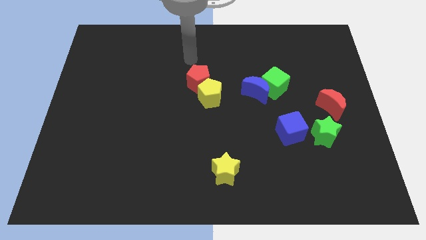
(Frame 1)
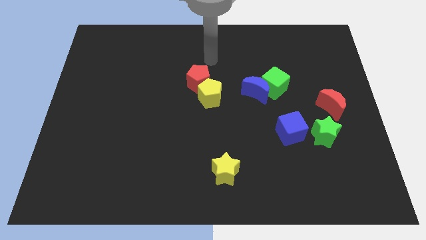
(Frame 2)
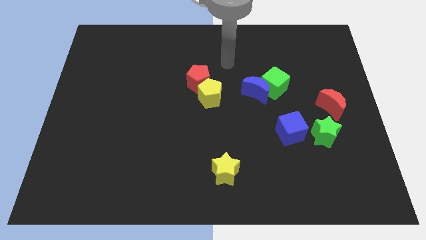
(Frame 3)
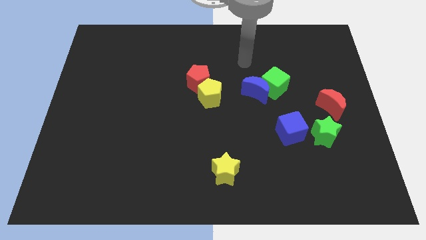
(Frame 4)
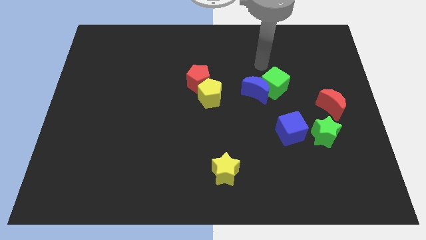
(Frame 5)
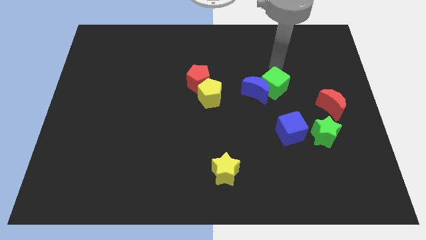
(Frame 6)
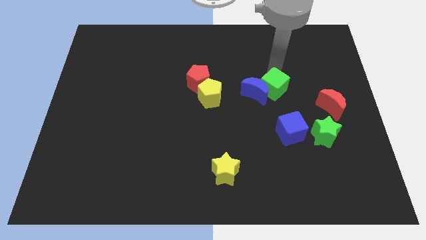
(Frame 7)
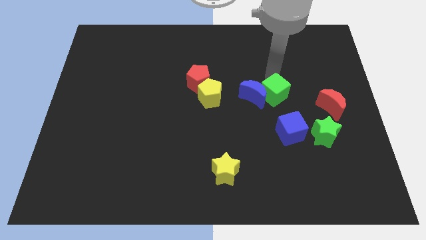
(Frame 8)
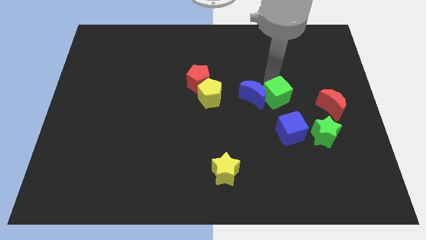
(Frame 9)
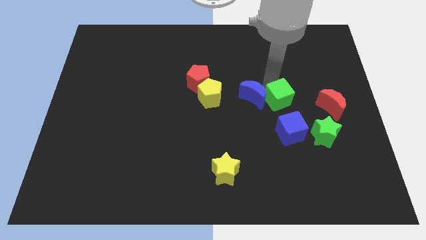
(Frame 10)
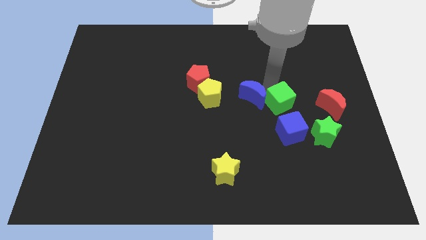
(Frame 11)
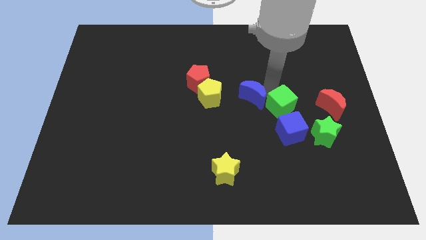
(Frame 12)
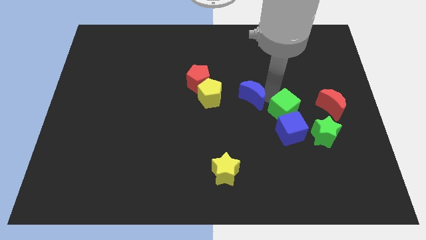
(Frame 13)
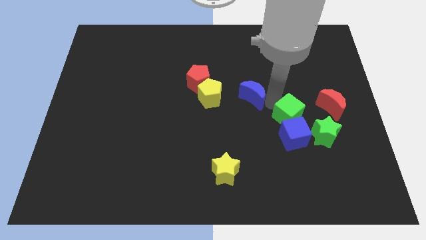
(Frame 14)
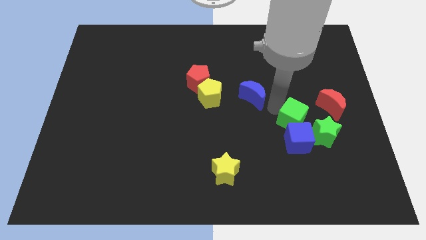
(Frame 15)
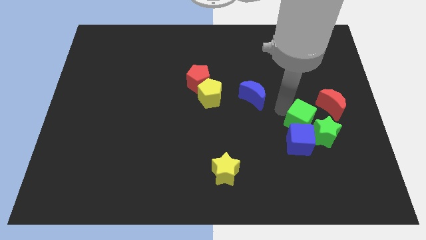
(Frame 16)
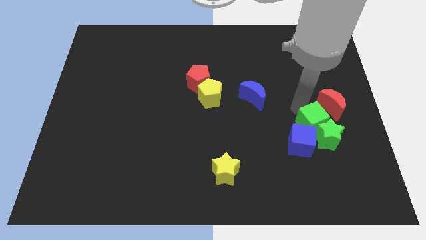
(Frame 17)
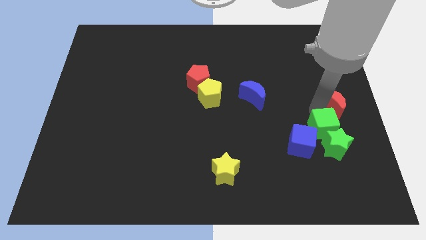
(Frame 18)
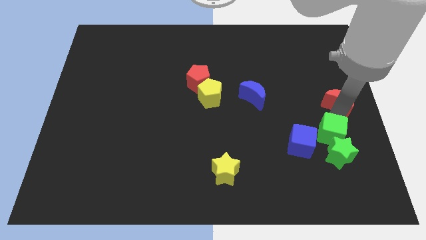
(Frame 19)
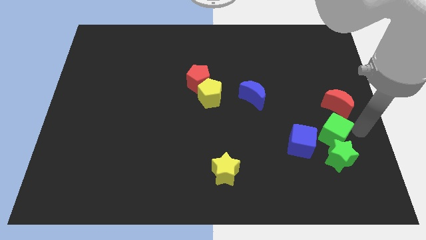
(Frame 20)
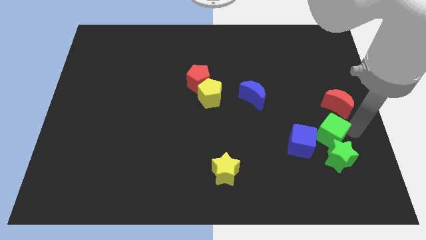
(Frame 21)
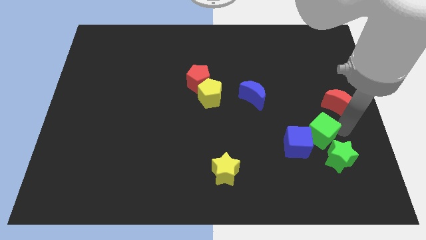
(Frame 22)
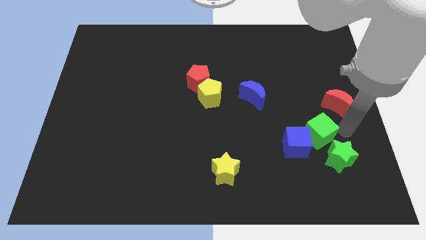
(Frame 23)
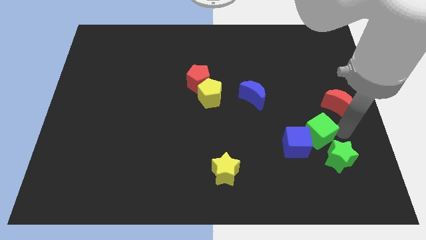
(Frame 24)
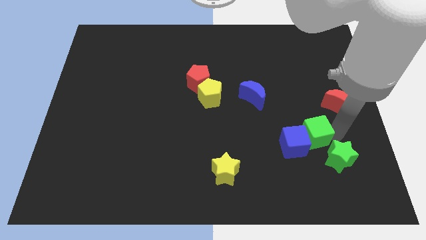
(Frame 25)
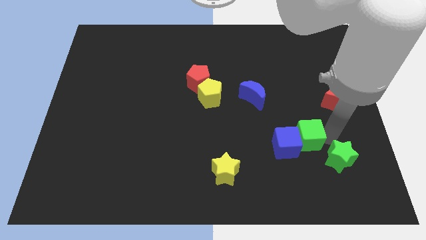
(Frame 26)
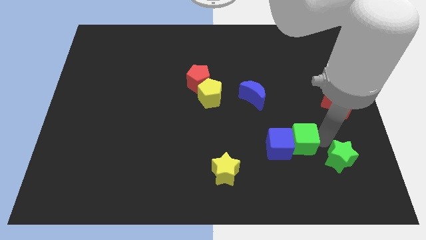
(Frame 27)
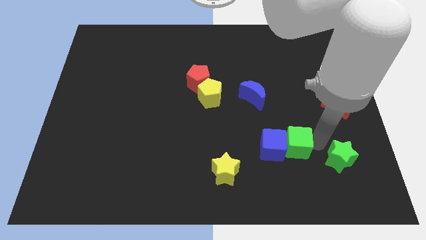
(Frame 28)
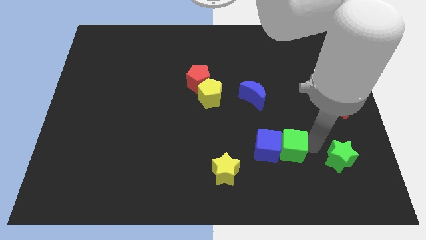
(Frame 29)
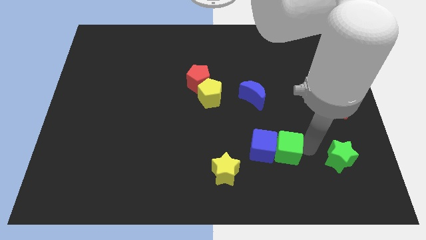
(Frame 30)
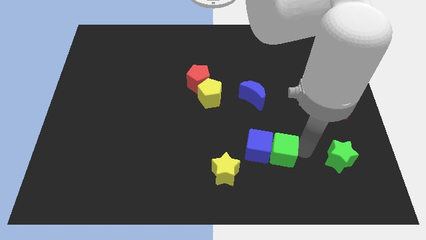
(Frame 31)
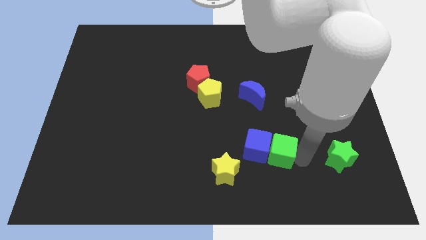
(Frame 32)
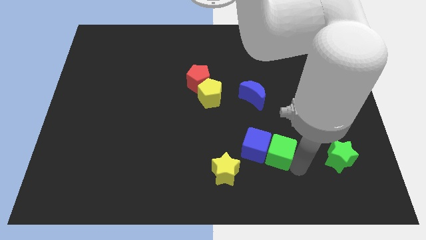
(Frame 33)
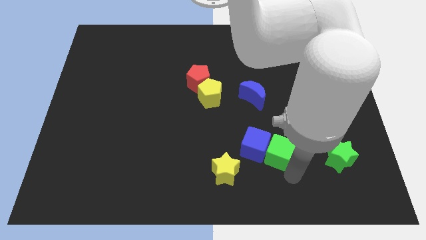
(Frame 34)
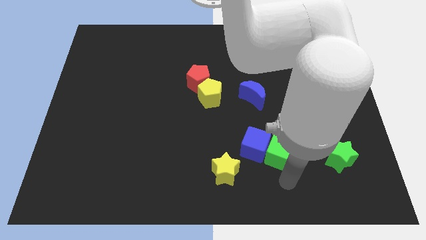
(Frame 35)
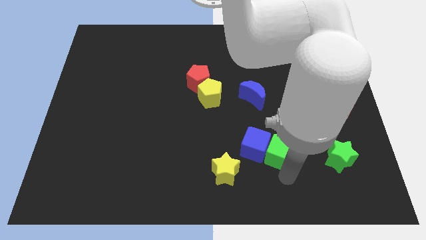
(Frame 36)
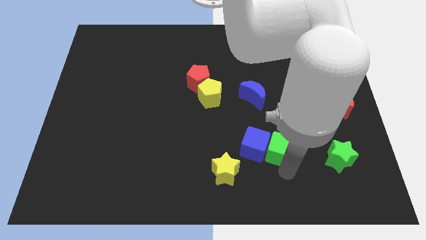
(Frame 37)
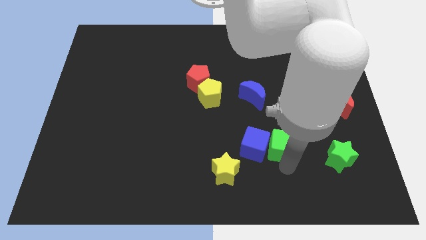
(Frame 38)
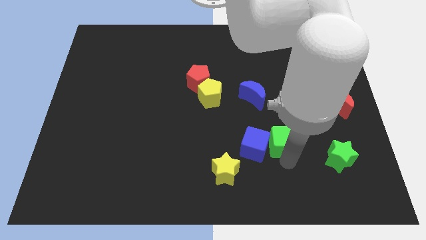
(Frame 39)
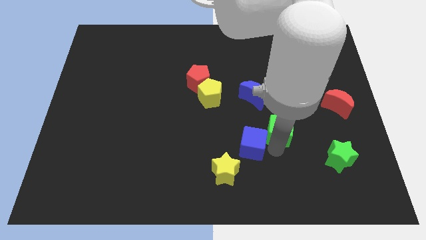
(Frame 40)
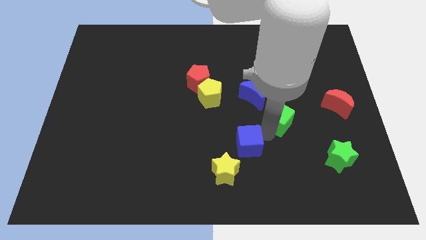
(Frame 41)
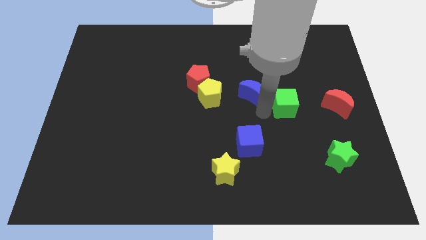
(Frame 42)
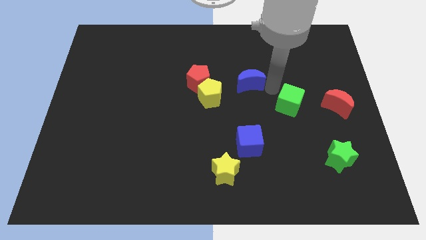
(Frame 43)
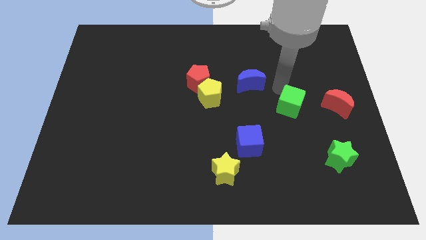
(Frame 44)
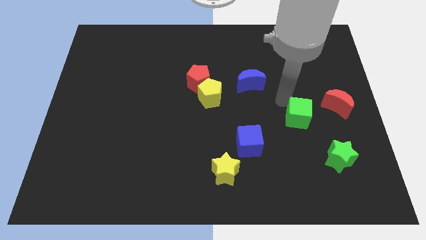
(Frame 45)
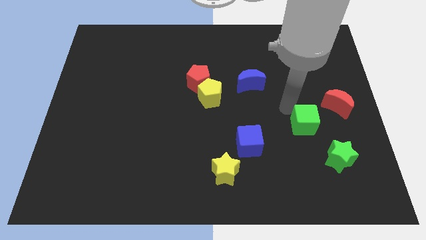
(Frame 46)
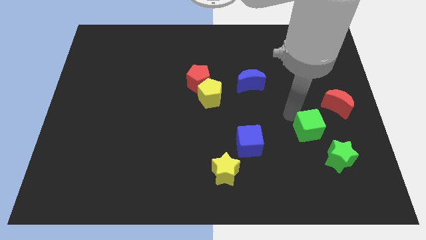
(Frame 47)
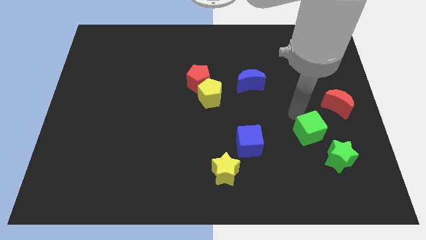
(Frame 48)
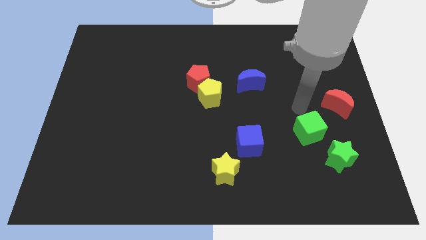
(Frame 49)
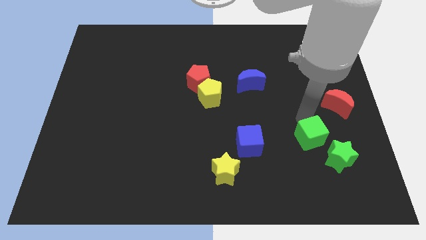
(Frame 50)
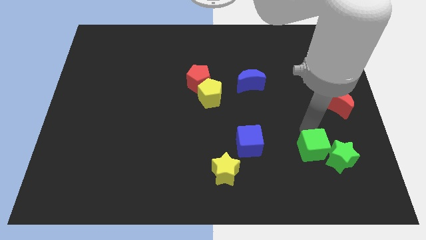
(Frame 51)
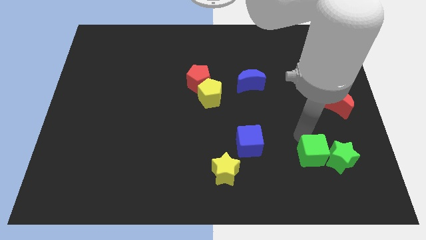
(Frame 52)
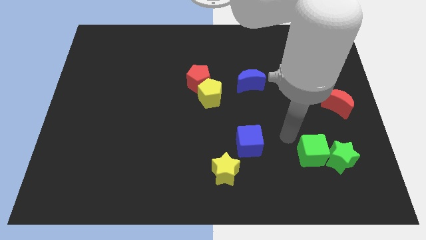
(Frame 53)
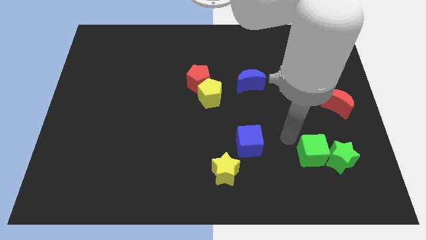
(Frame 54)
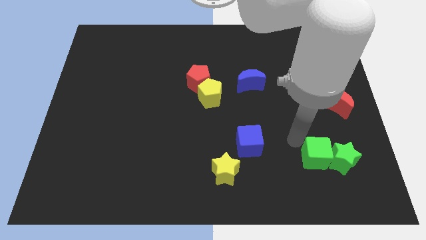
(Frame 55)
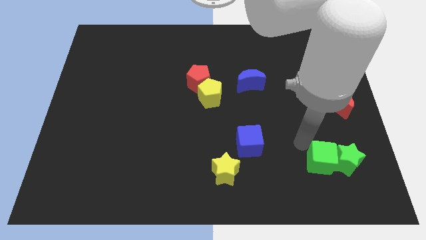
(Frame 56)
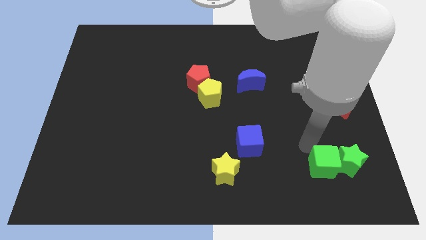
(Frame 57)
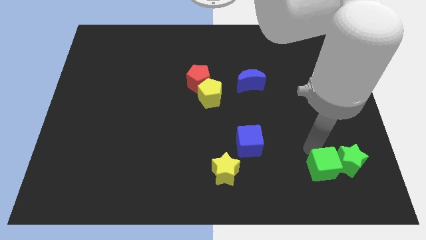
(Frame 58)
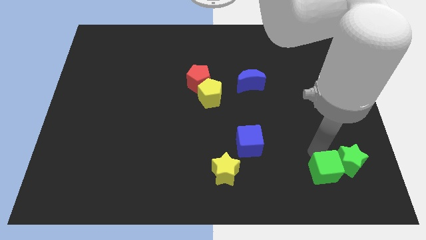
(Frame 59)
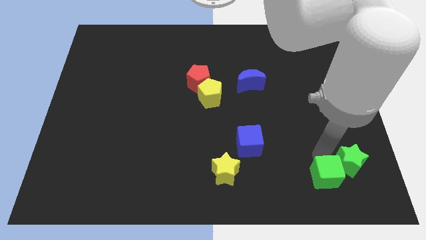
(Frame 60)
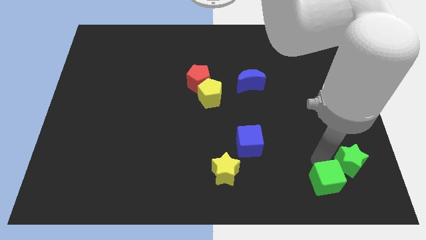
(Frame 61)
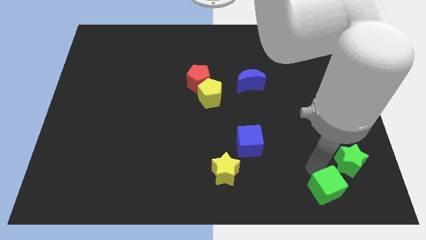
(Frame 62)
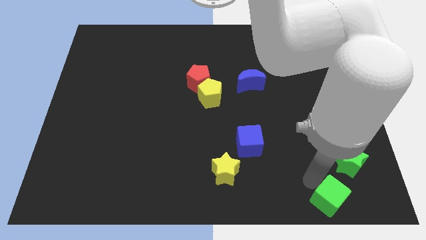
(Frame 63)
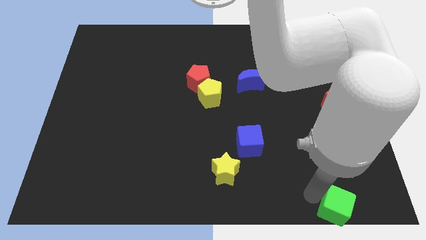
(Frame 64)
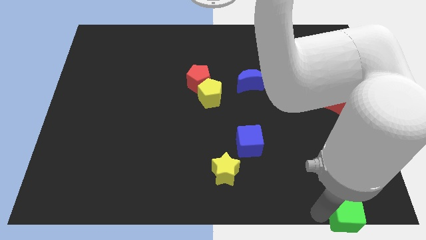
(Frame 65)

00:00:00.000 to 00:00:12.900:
slide the green cube to the bottom right
